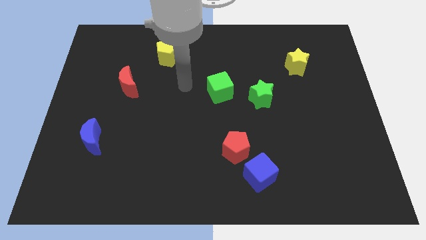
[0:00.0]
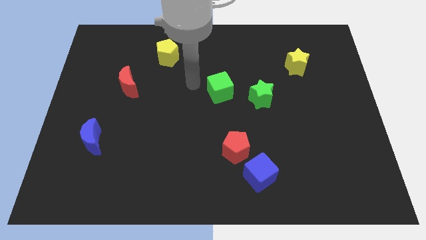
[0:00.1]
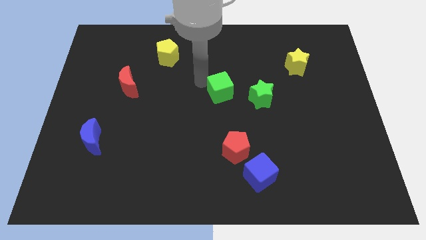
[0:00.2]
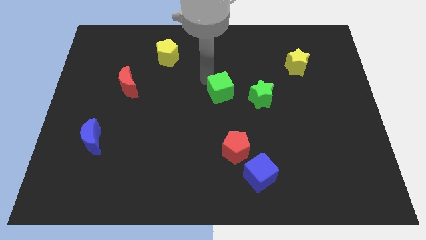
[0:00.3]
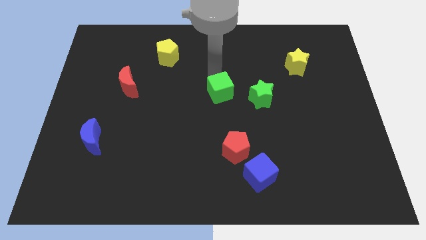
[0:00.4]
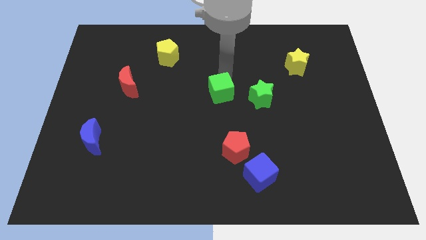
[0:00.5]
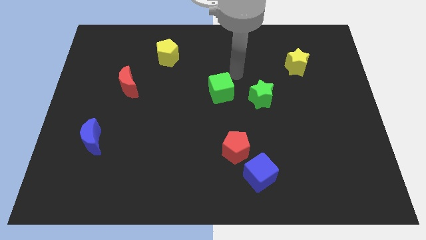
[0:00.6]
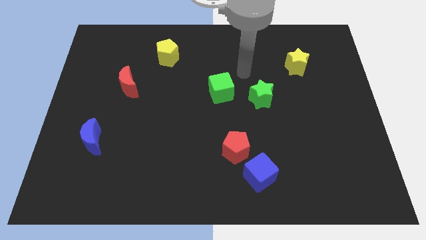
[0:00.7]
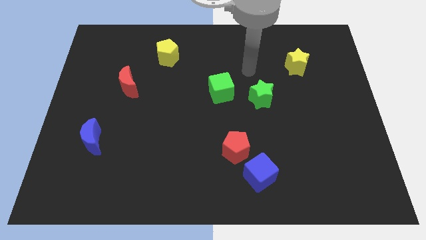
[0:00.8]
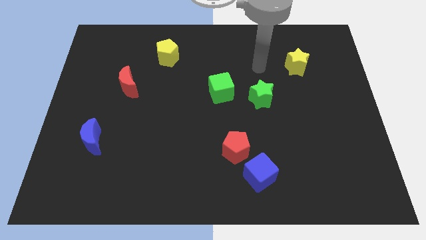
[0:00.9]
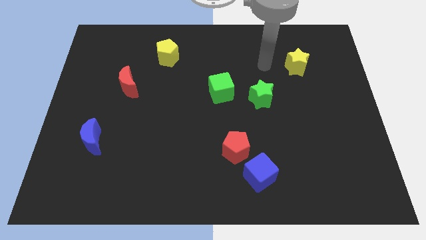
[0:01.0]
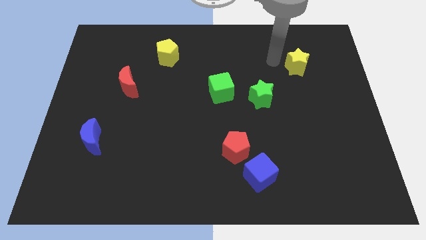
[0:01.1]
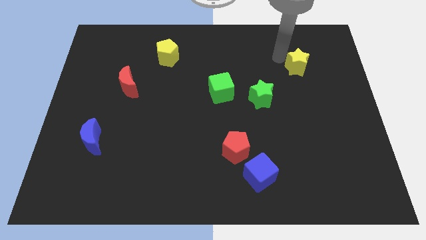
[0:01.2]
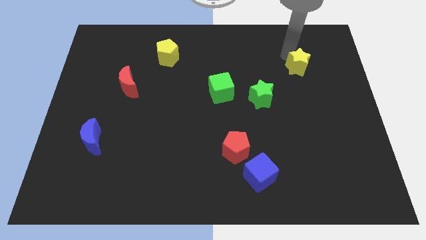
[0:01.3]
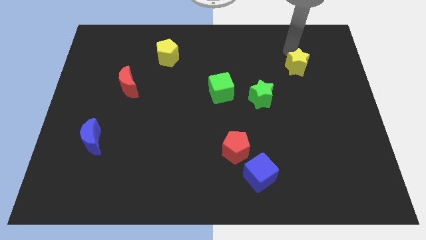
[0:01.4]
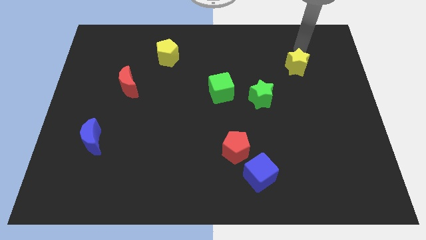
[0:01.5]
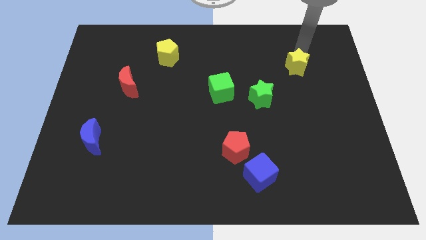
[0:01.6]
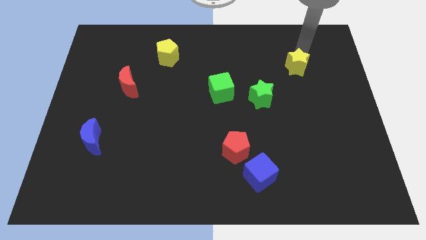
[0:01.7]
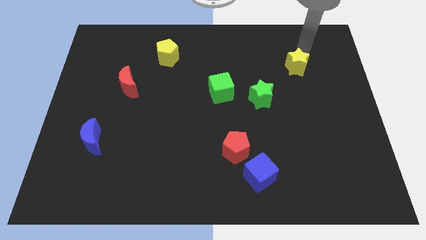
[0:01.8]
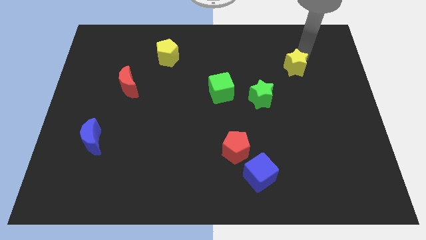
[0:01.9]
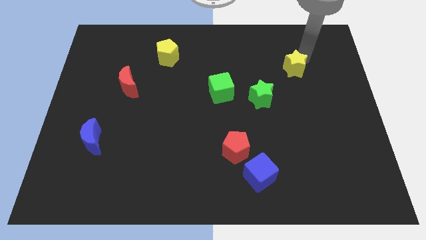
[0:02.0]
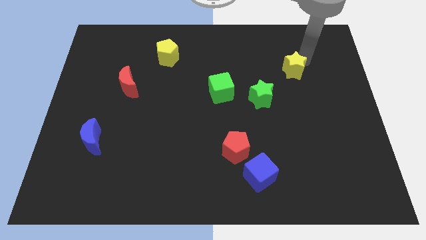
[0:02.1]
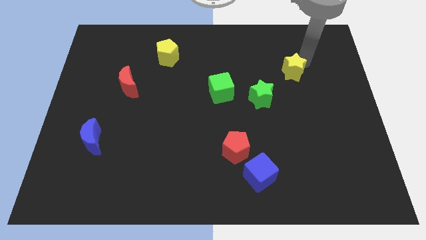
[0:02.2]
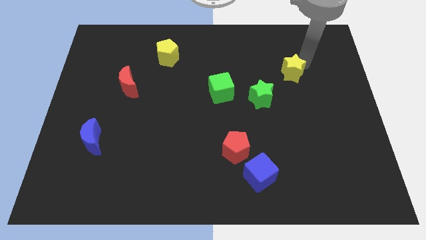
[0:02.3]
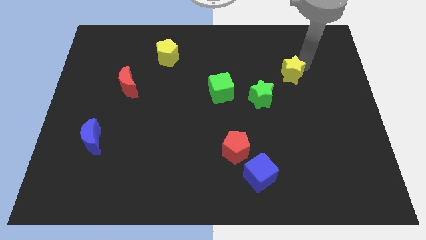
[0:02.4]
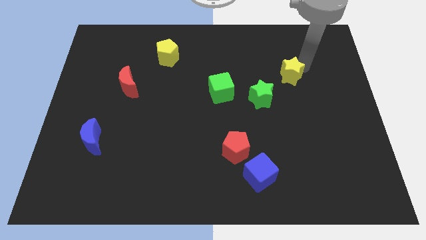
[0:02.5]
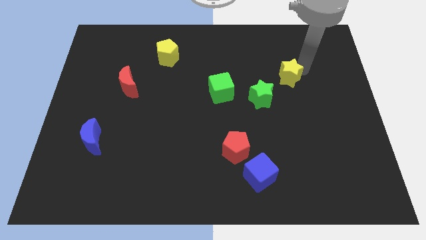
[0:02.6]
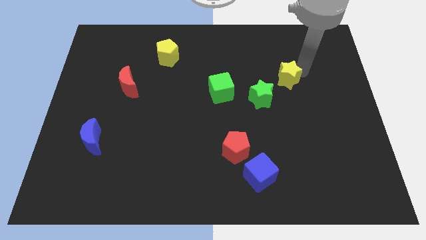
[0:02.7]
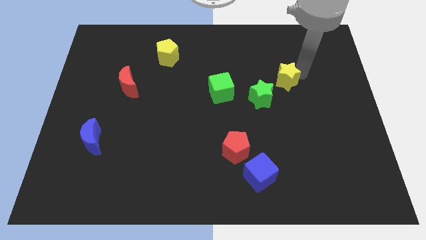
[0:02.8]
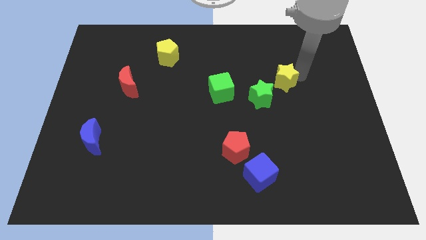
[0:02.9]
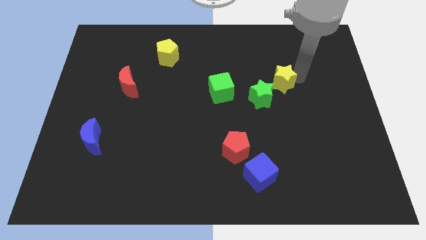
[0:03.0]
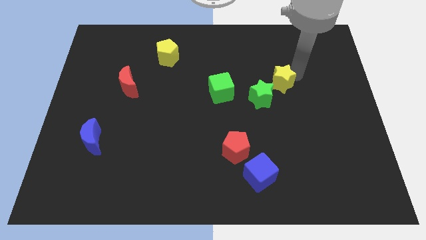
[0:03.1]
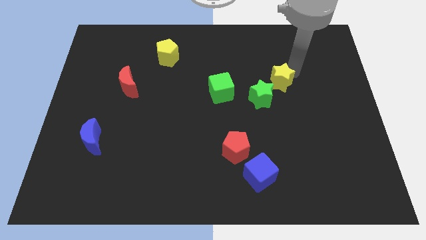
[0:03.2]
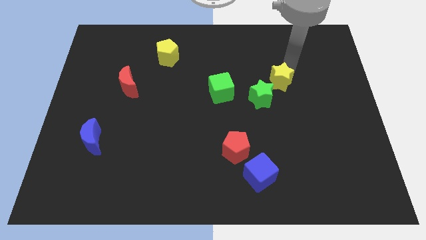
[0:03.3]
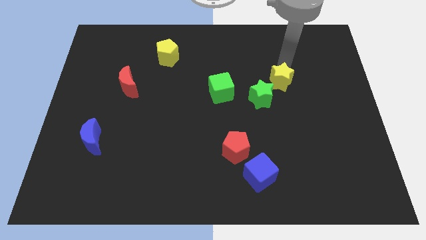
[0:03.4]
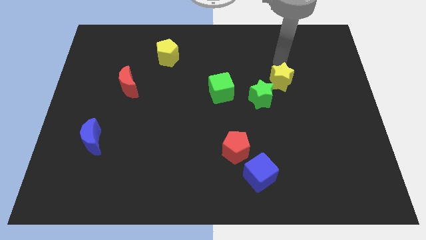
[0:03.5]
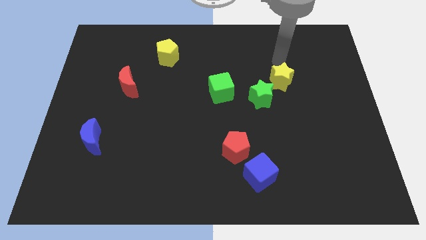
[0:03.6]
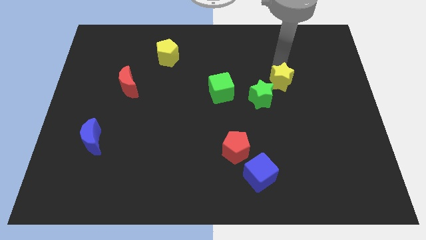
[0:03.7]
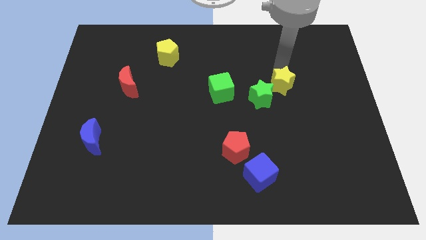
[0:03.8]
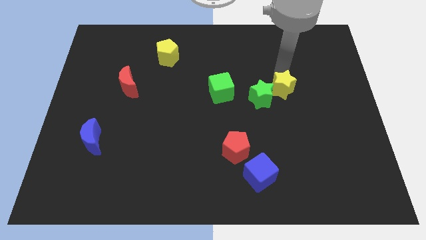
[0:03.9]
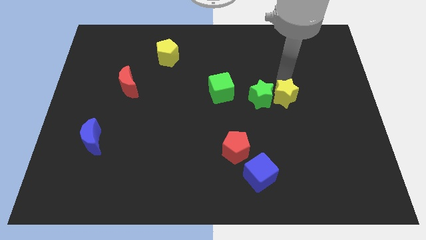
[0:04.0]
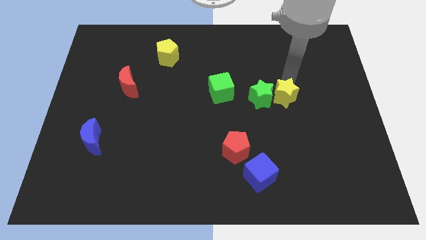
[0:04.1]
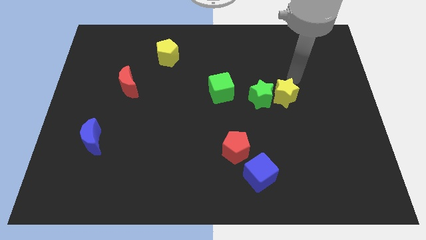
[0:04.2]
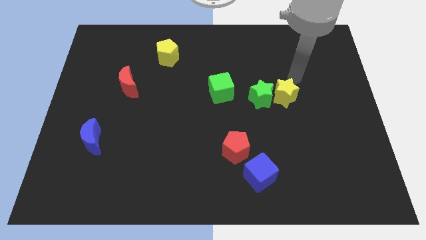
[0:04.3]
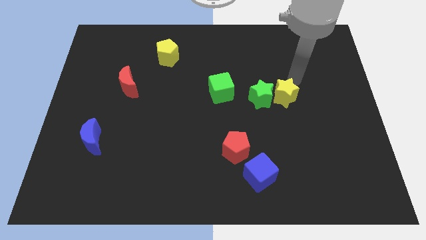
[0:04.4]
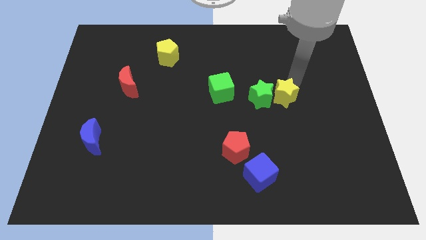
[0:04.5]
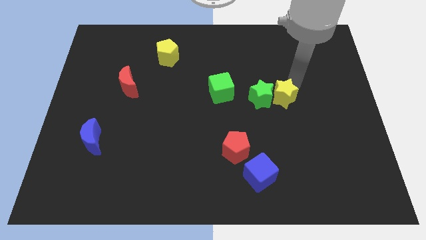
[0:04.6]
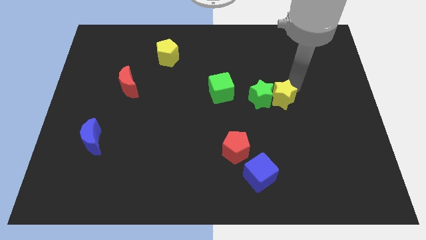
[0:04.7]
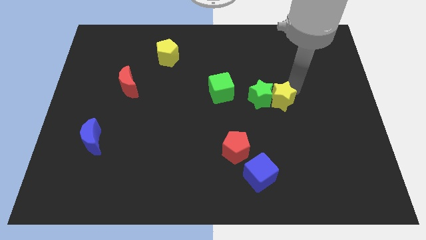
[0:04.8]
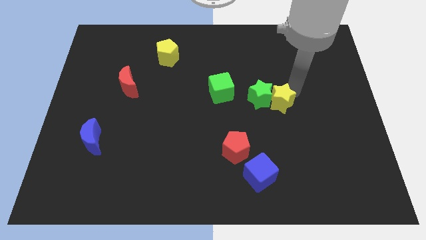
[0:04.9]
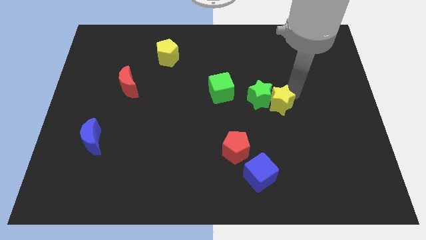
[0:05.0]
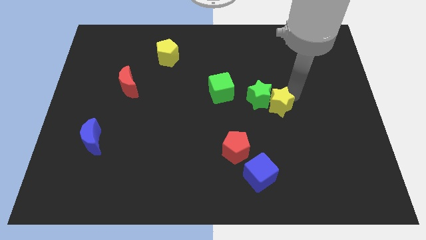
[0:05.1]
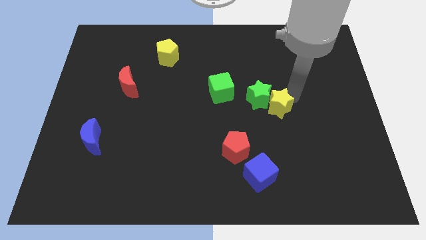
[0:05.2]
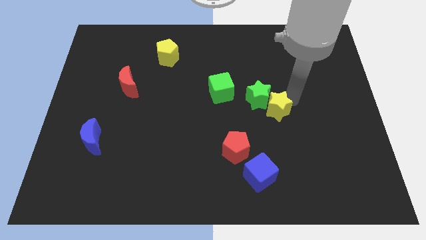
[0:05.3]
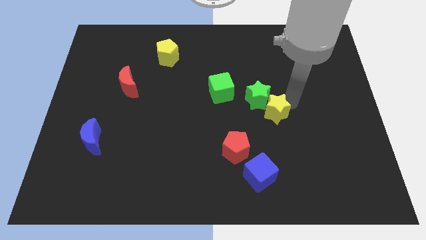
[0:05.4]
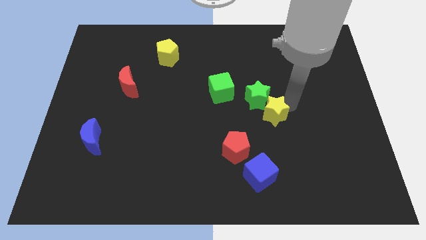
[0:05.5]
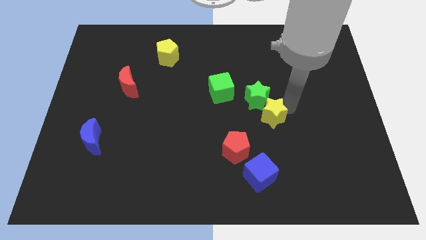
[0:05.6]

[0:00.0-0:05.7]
put the yellow star diagonally up and to the right of the red pentagon
